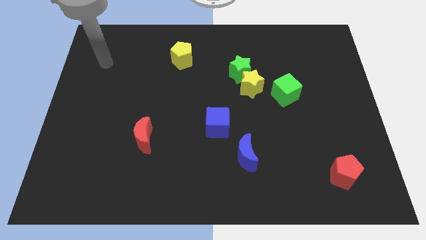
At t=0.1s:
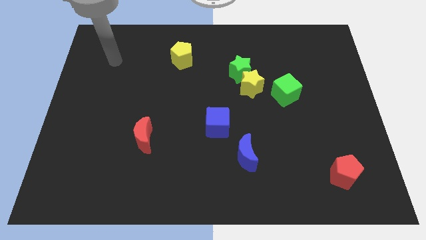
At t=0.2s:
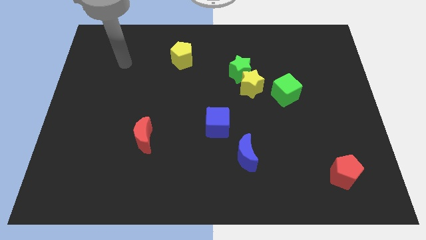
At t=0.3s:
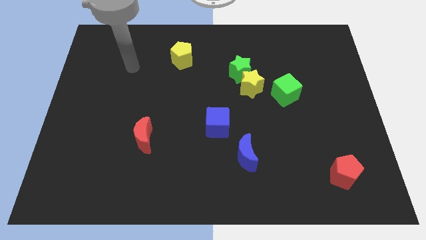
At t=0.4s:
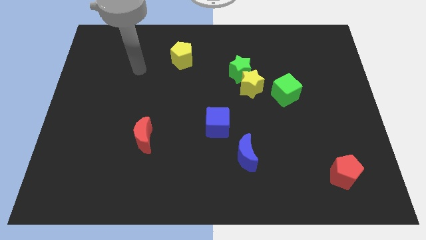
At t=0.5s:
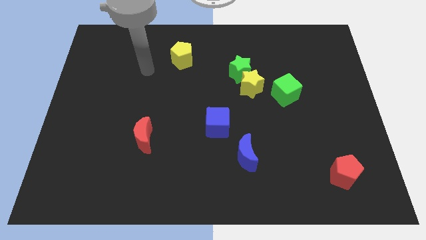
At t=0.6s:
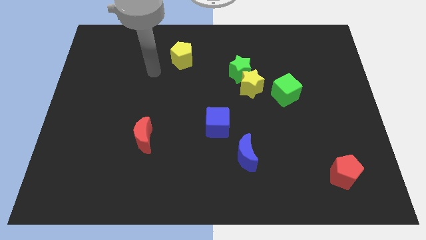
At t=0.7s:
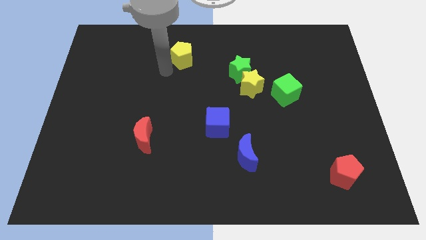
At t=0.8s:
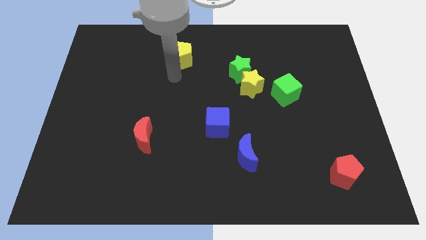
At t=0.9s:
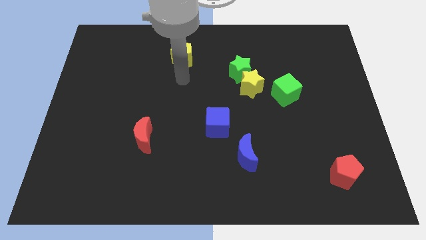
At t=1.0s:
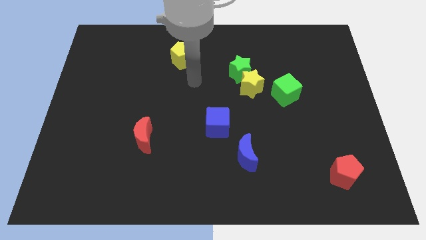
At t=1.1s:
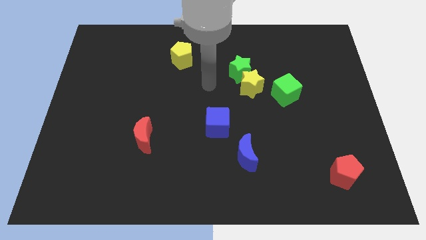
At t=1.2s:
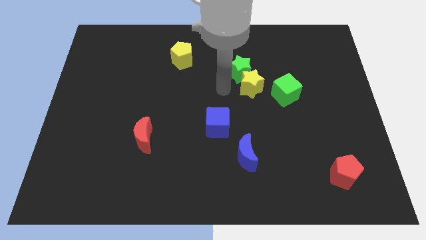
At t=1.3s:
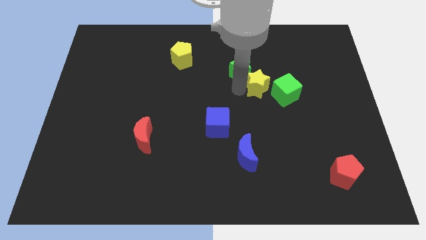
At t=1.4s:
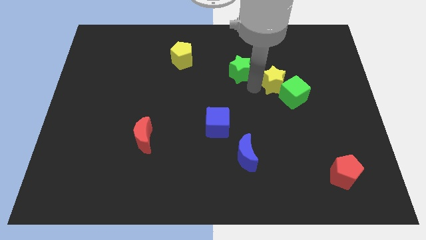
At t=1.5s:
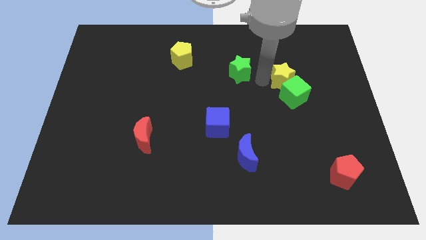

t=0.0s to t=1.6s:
pull the green star apart from the yellow star

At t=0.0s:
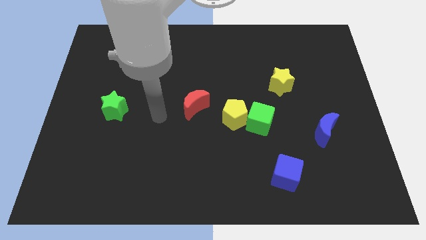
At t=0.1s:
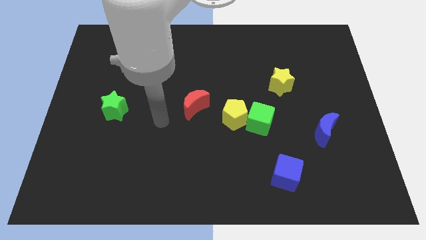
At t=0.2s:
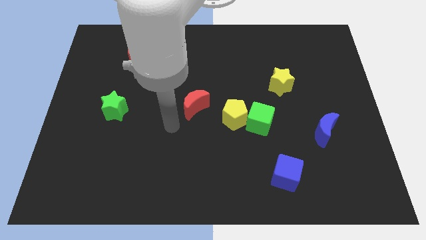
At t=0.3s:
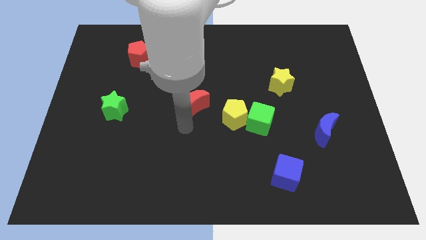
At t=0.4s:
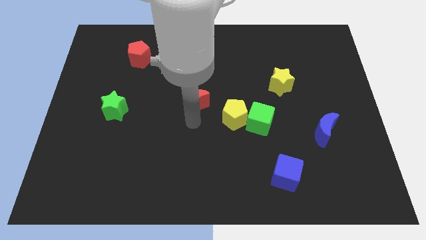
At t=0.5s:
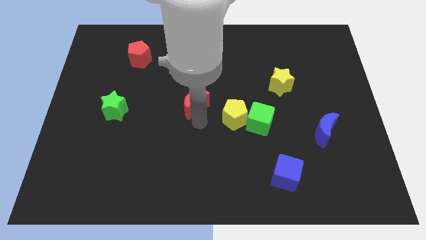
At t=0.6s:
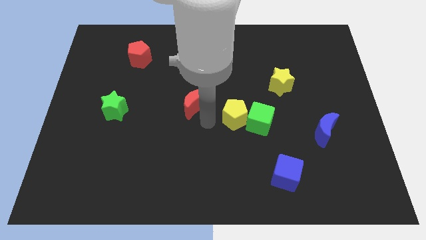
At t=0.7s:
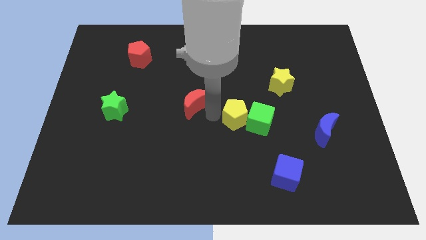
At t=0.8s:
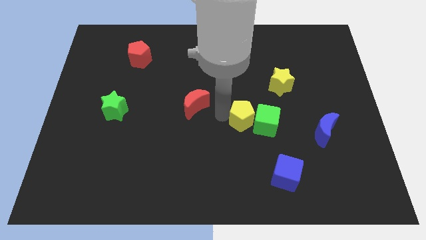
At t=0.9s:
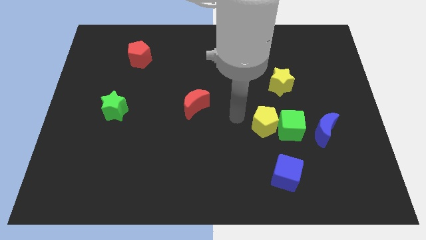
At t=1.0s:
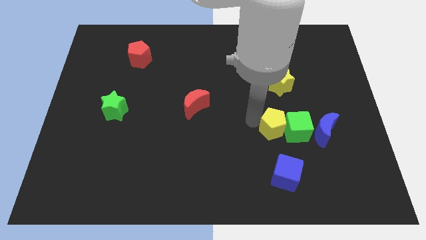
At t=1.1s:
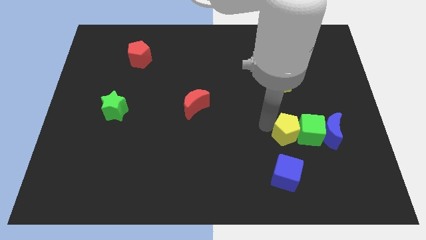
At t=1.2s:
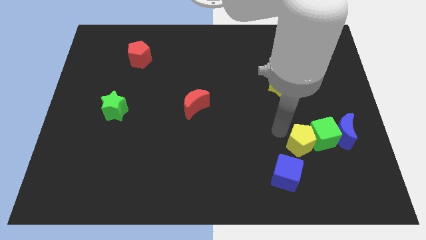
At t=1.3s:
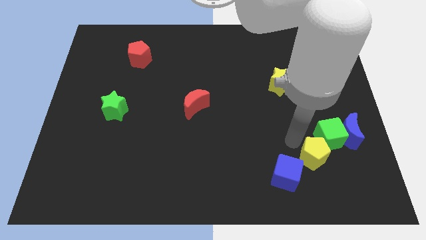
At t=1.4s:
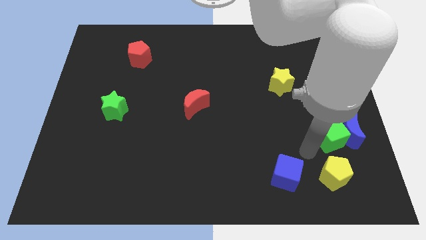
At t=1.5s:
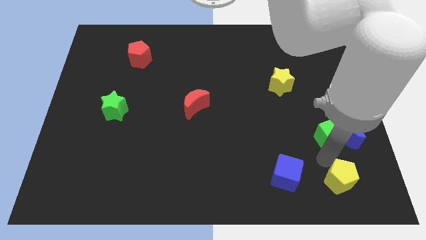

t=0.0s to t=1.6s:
separate the green cube from the yellow pentagon

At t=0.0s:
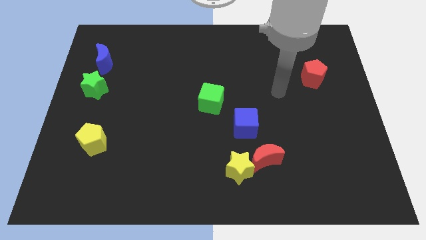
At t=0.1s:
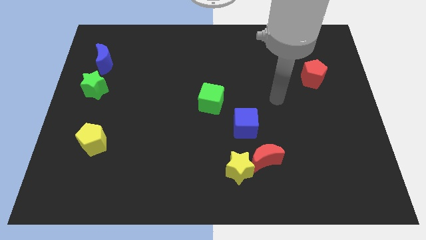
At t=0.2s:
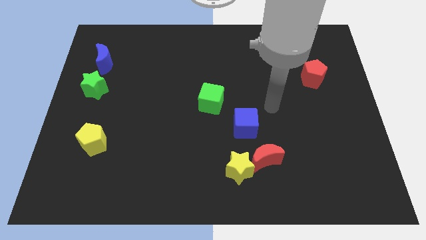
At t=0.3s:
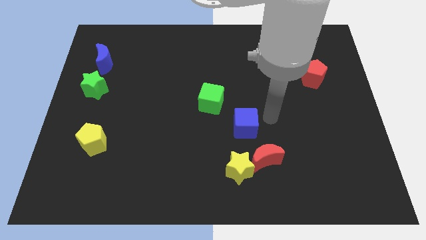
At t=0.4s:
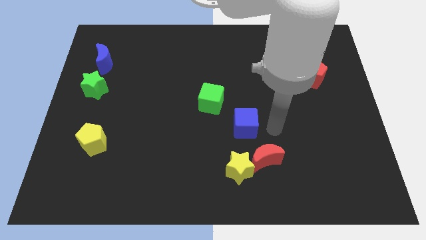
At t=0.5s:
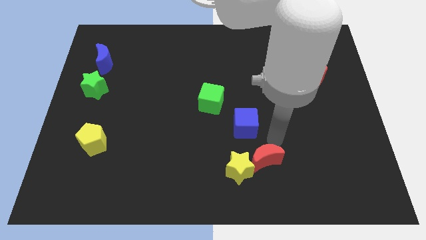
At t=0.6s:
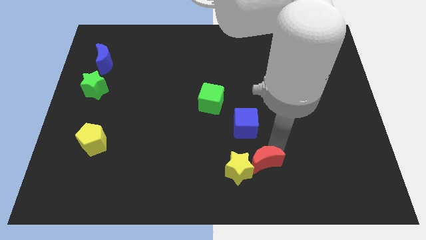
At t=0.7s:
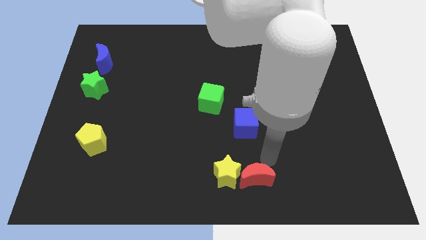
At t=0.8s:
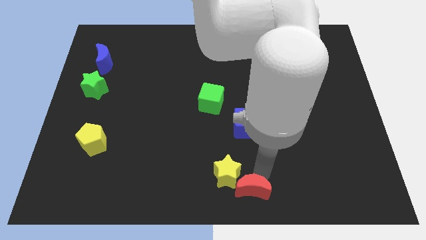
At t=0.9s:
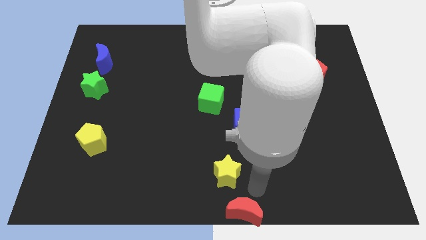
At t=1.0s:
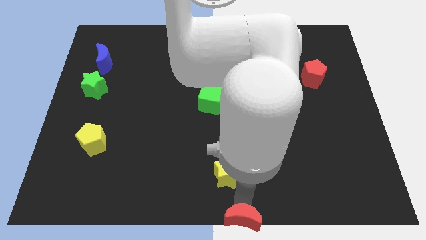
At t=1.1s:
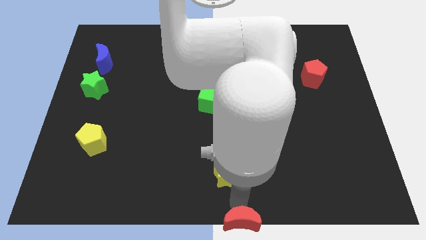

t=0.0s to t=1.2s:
pull the yellow star apart from the red moon

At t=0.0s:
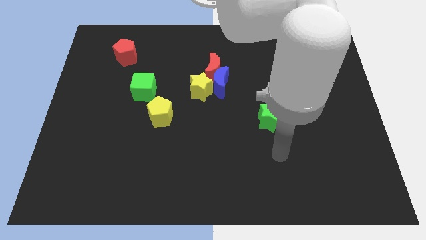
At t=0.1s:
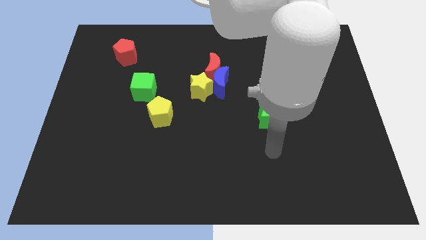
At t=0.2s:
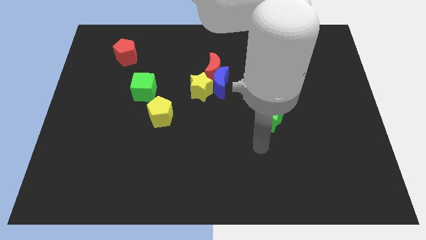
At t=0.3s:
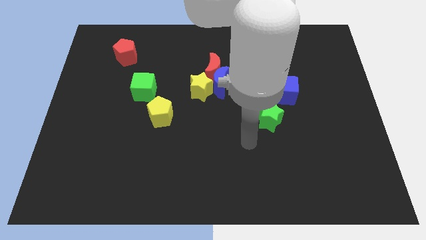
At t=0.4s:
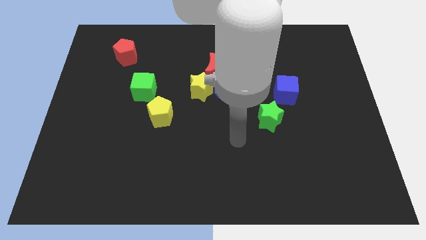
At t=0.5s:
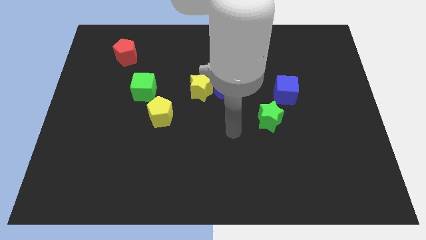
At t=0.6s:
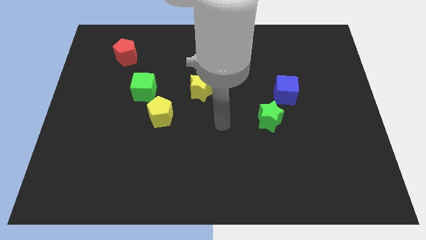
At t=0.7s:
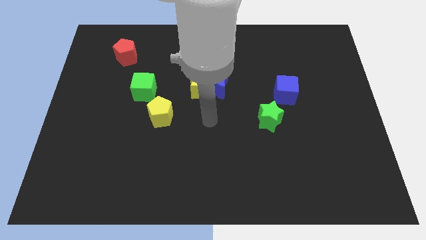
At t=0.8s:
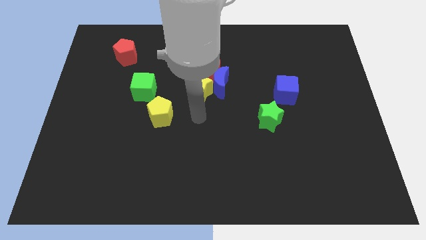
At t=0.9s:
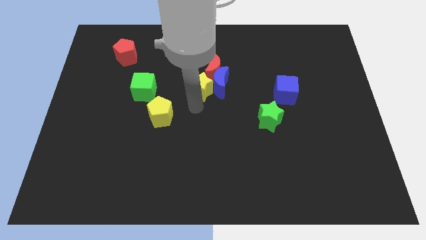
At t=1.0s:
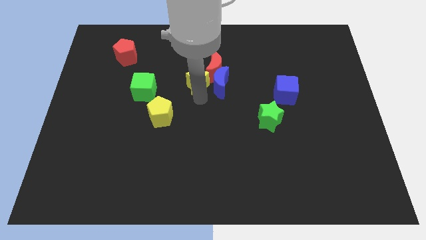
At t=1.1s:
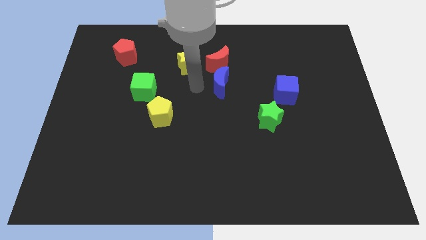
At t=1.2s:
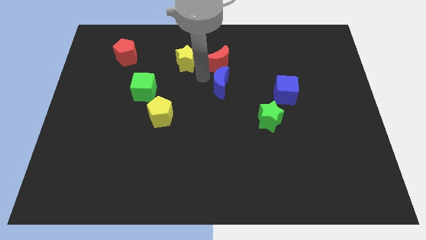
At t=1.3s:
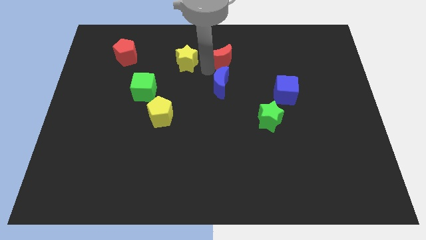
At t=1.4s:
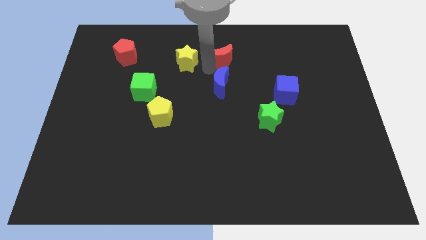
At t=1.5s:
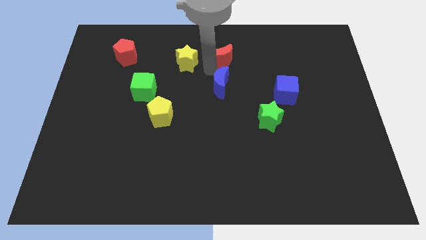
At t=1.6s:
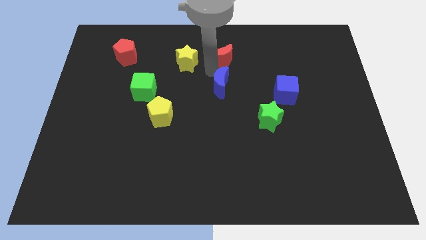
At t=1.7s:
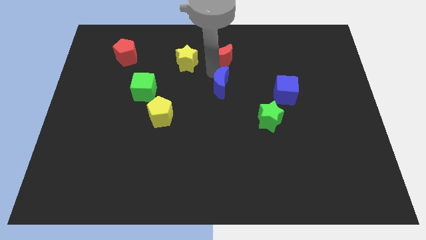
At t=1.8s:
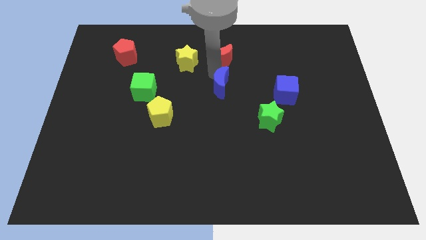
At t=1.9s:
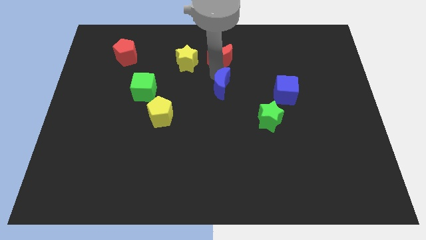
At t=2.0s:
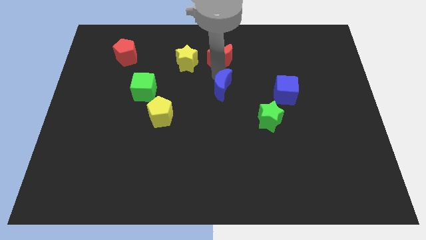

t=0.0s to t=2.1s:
move the blue moon away from the red moon and yellow star

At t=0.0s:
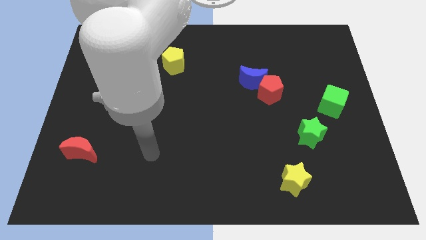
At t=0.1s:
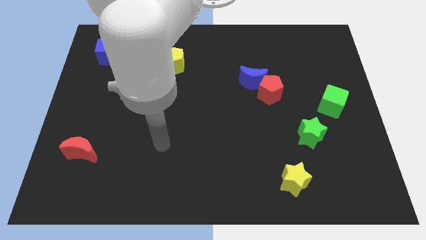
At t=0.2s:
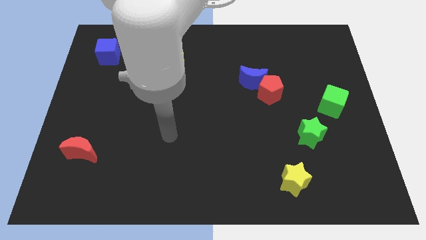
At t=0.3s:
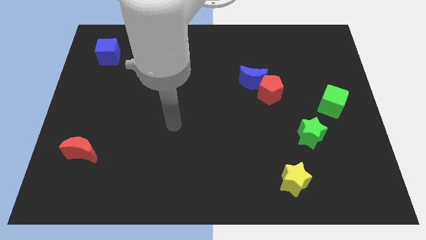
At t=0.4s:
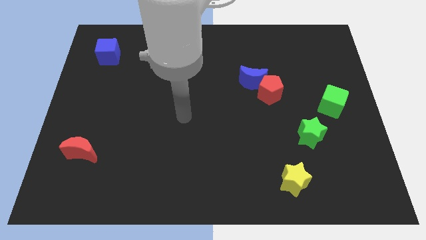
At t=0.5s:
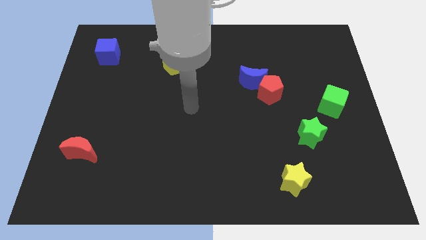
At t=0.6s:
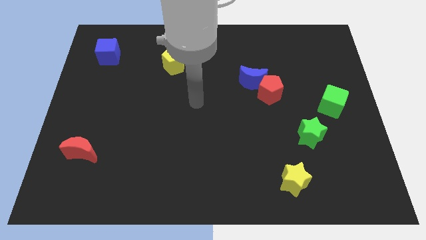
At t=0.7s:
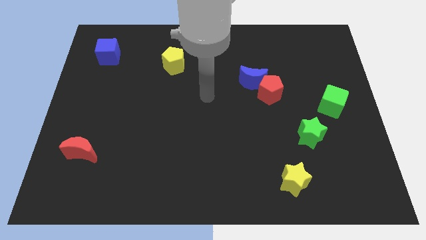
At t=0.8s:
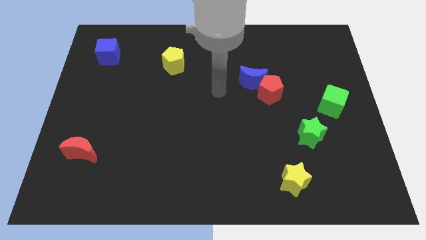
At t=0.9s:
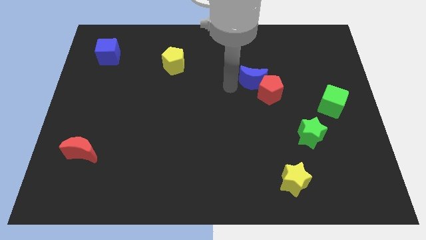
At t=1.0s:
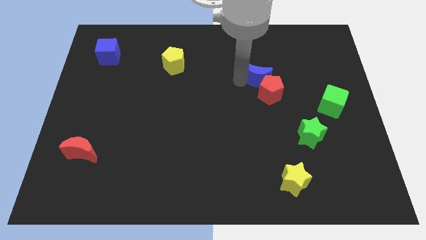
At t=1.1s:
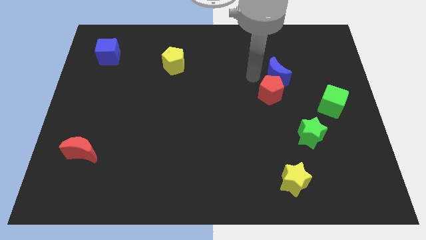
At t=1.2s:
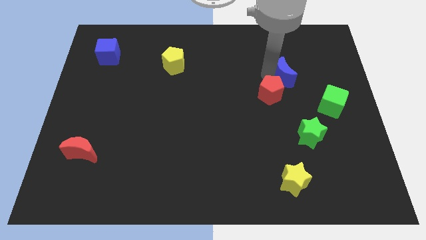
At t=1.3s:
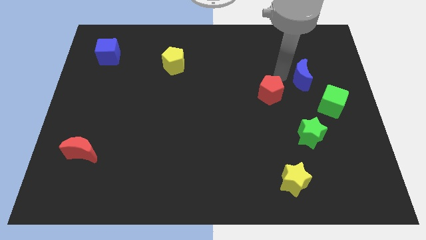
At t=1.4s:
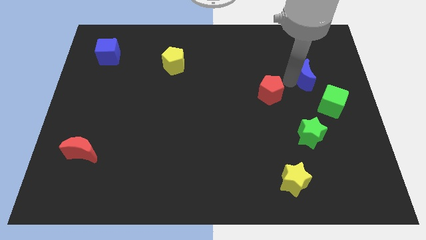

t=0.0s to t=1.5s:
move the red pentagon away from the blue moon

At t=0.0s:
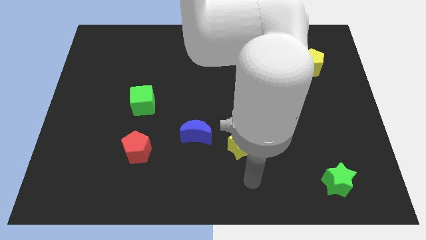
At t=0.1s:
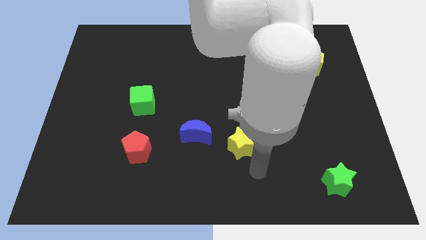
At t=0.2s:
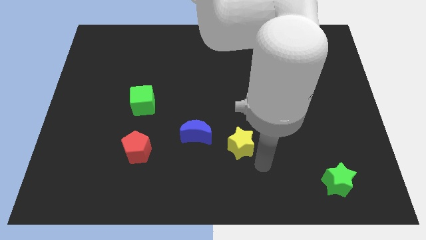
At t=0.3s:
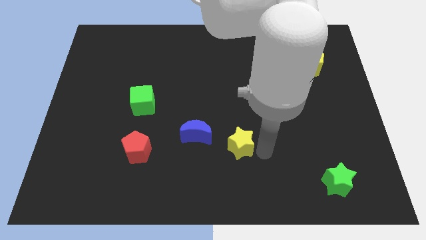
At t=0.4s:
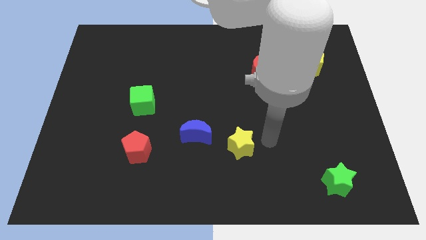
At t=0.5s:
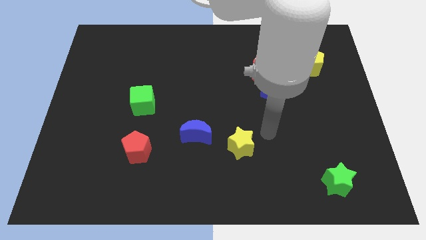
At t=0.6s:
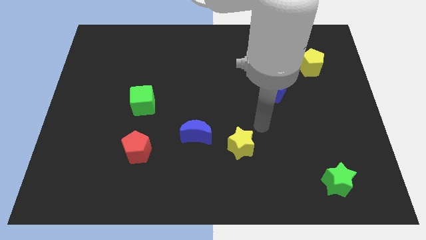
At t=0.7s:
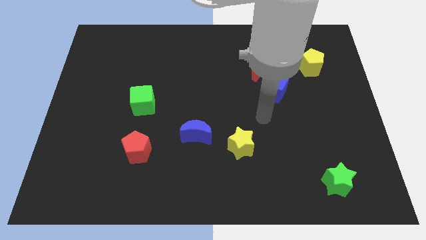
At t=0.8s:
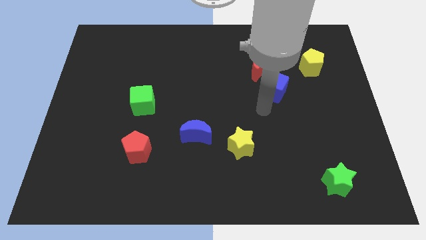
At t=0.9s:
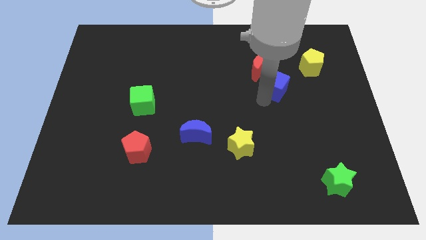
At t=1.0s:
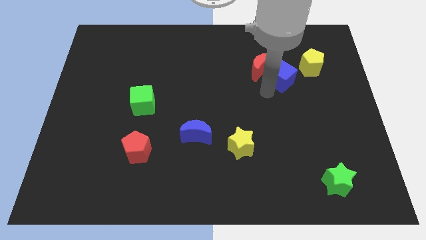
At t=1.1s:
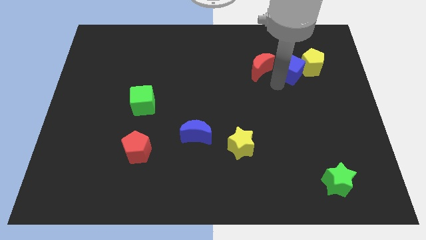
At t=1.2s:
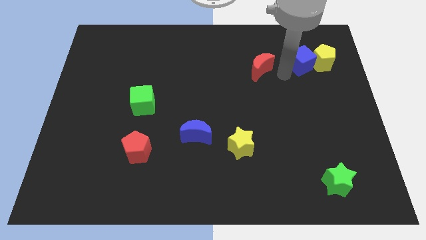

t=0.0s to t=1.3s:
move the red moon away from the blue cube

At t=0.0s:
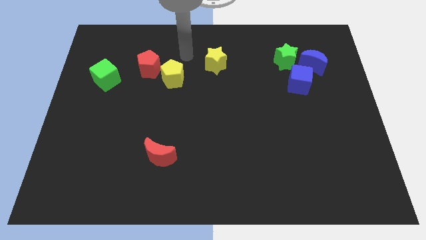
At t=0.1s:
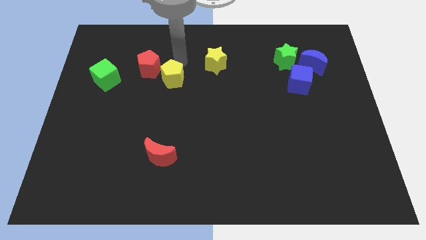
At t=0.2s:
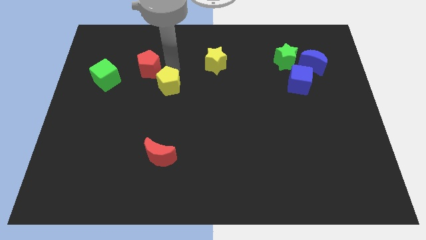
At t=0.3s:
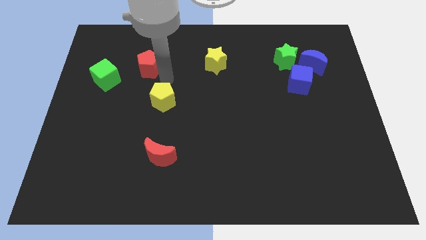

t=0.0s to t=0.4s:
move the red pentagon away from the yellow pentagon
